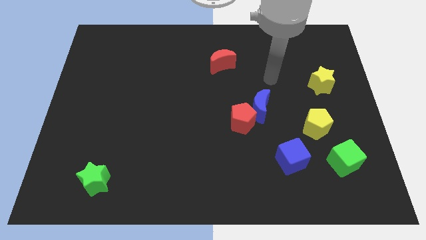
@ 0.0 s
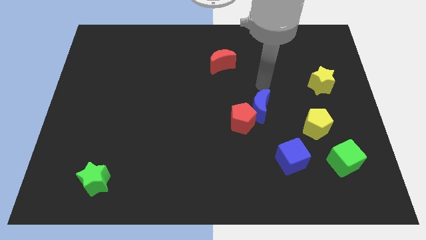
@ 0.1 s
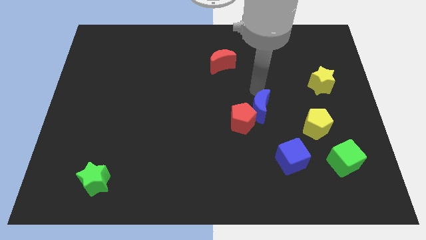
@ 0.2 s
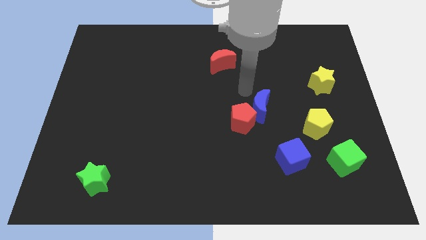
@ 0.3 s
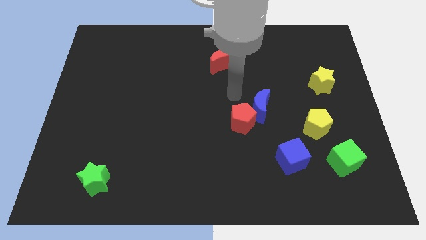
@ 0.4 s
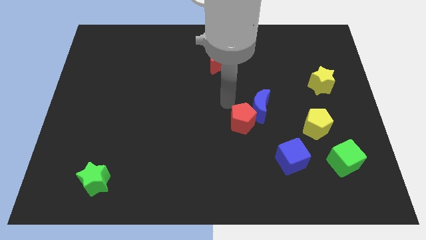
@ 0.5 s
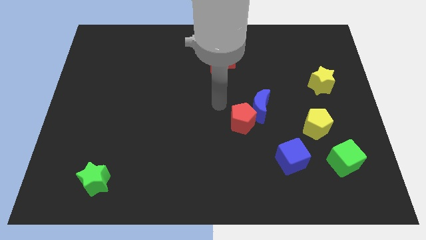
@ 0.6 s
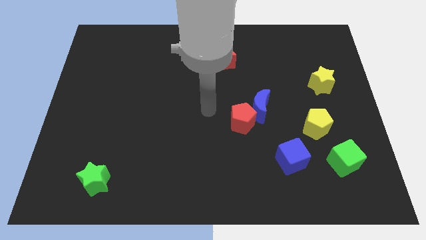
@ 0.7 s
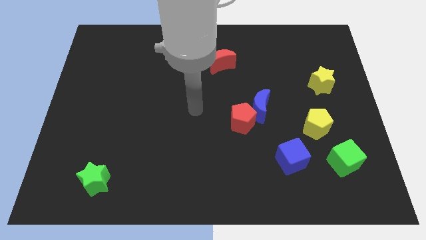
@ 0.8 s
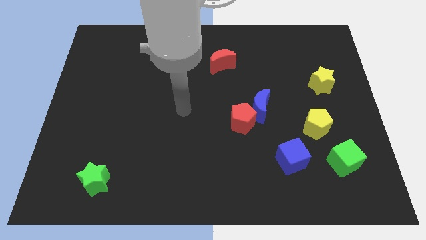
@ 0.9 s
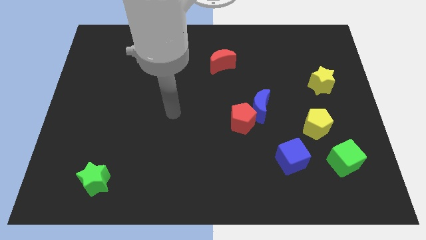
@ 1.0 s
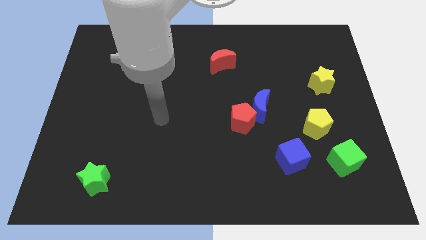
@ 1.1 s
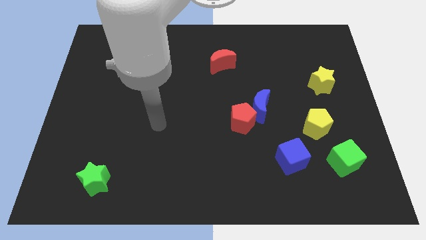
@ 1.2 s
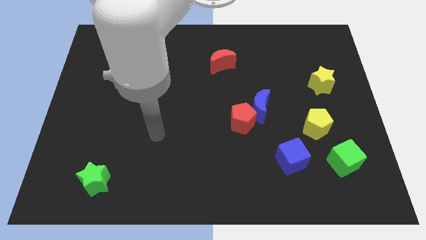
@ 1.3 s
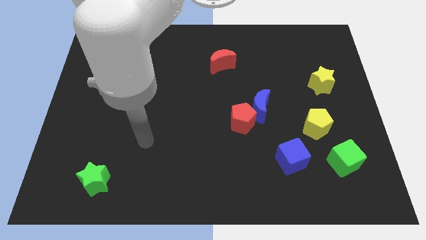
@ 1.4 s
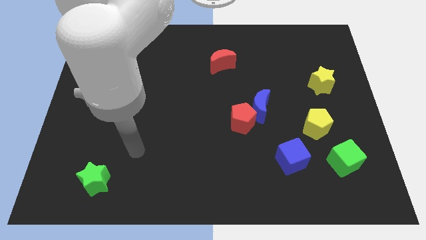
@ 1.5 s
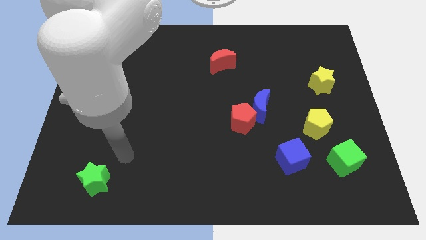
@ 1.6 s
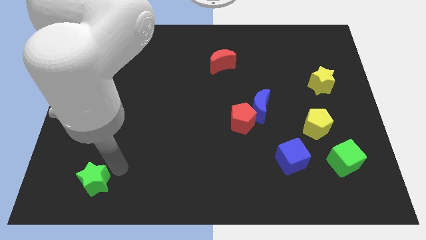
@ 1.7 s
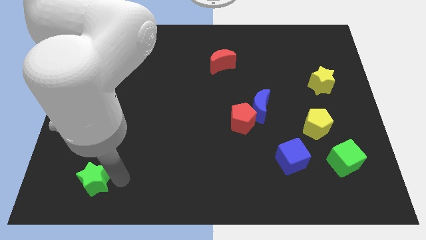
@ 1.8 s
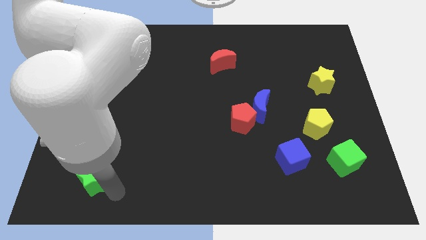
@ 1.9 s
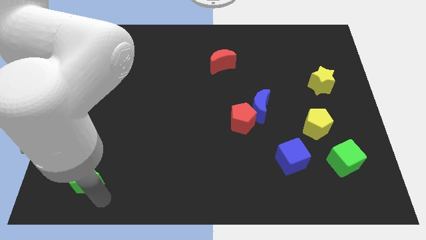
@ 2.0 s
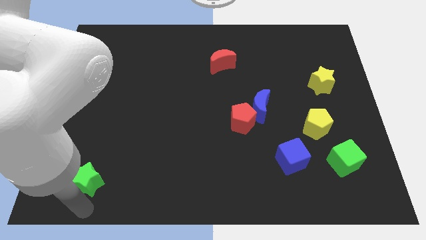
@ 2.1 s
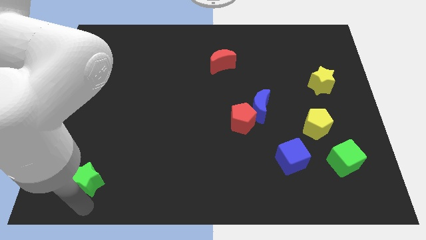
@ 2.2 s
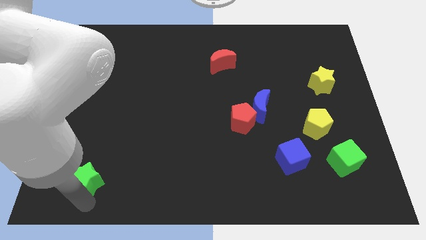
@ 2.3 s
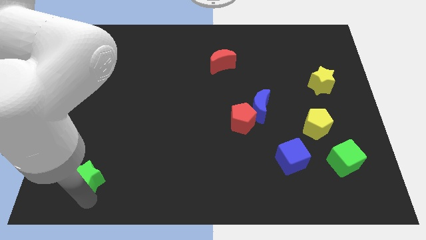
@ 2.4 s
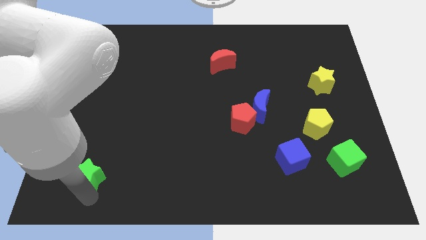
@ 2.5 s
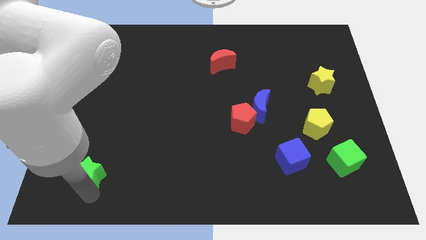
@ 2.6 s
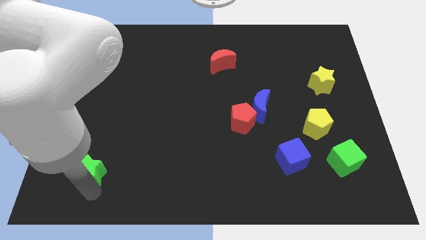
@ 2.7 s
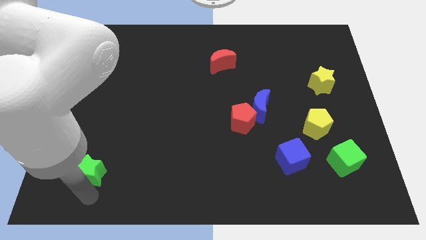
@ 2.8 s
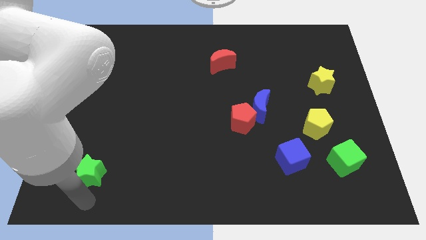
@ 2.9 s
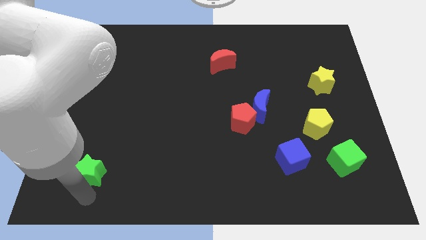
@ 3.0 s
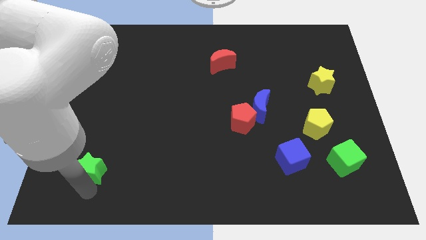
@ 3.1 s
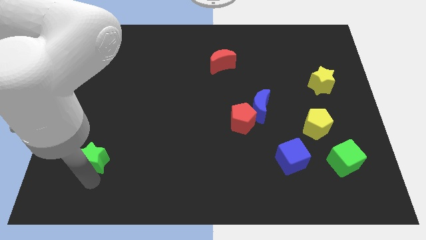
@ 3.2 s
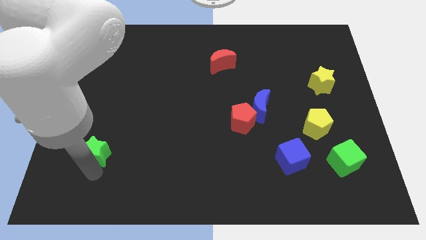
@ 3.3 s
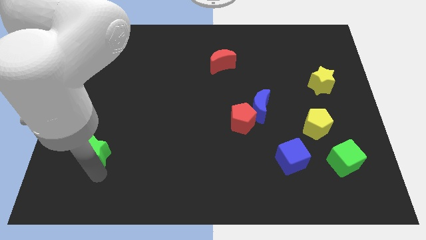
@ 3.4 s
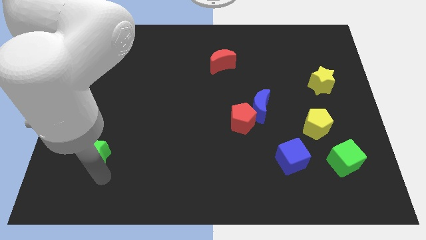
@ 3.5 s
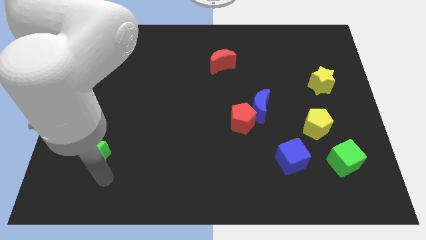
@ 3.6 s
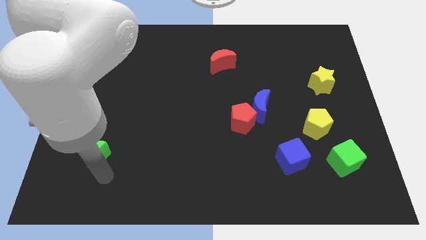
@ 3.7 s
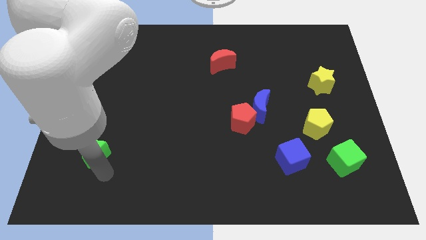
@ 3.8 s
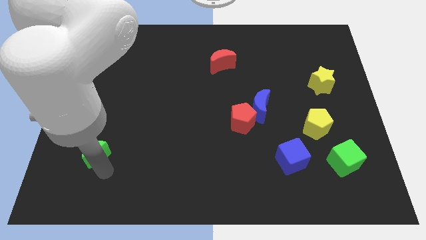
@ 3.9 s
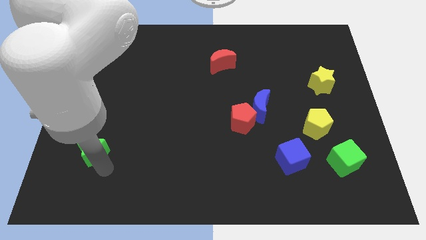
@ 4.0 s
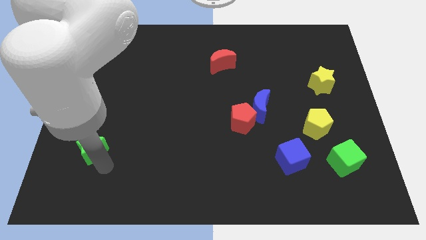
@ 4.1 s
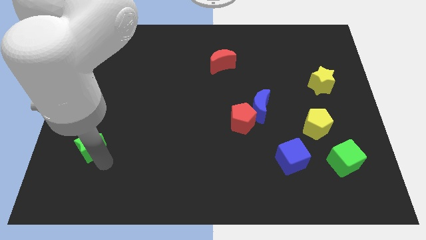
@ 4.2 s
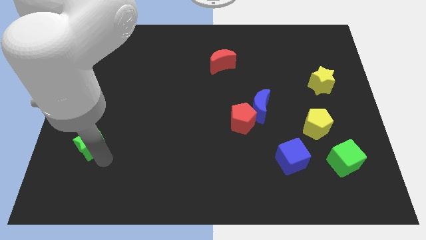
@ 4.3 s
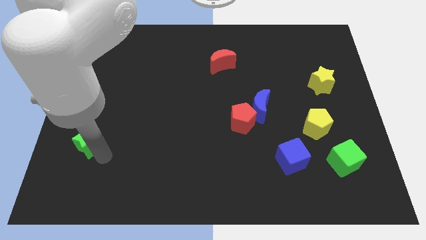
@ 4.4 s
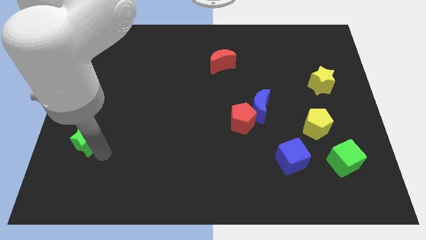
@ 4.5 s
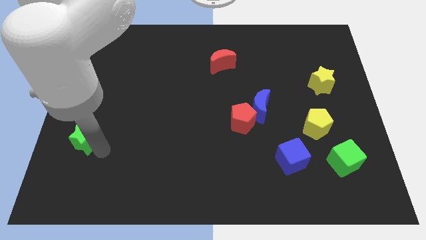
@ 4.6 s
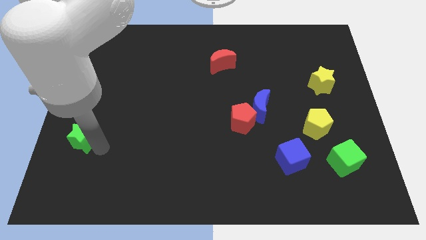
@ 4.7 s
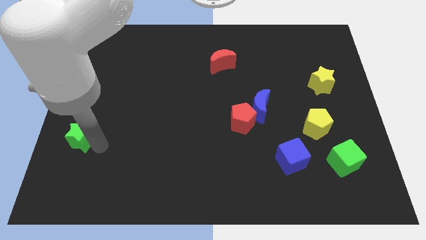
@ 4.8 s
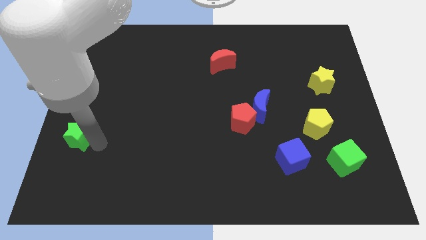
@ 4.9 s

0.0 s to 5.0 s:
slide the green star to the left side

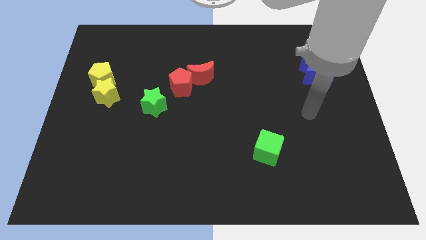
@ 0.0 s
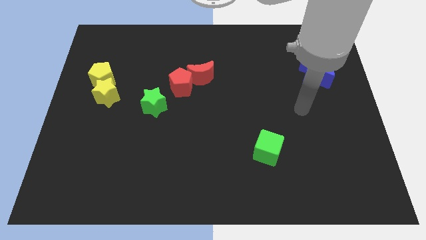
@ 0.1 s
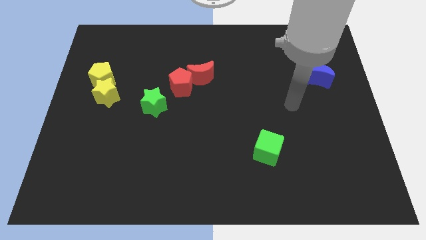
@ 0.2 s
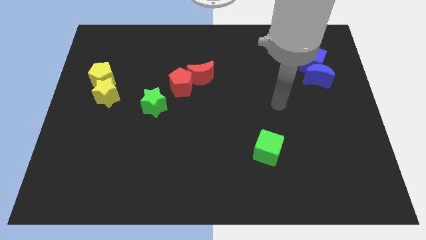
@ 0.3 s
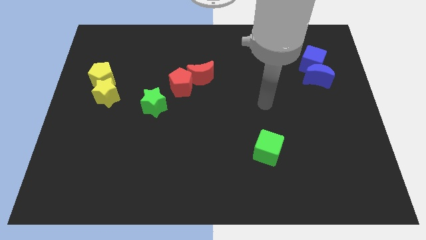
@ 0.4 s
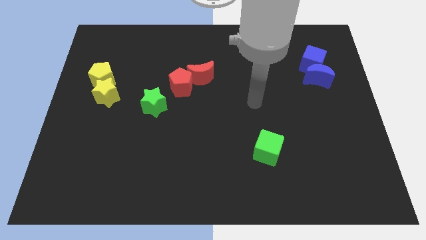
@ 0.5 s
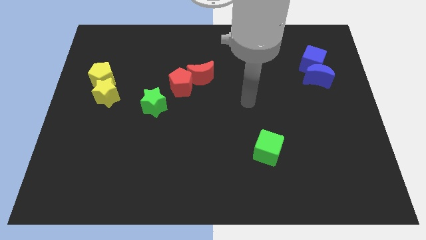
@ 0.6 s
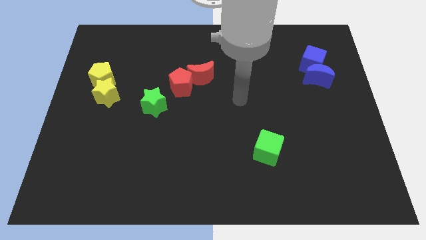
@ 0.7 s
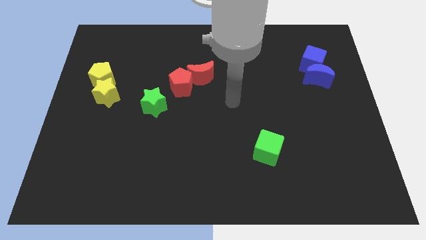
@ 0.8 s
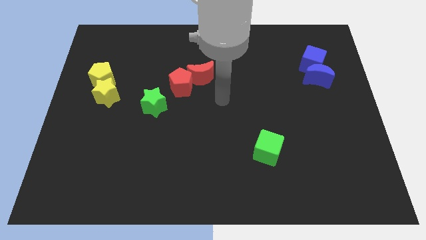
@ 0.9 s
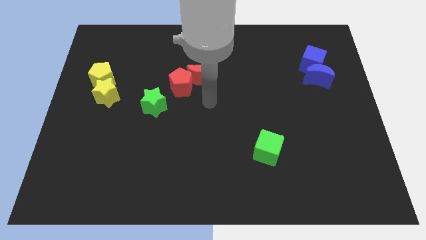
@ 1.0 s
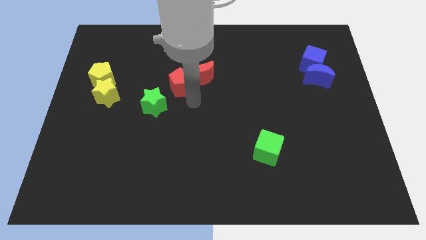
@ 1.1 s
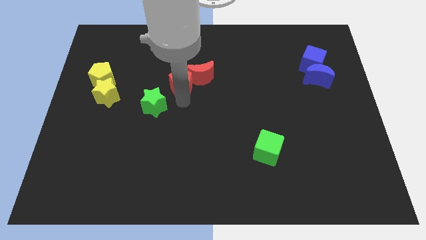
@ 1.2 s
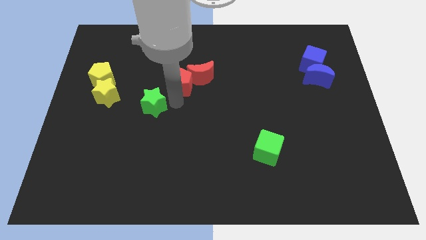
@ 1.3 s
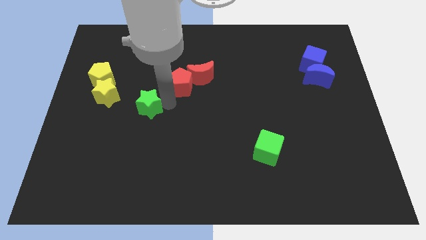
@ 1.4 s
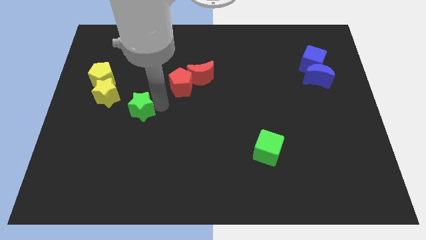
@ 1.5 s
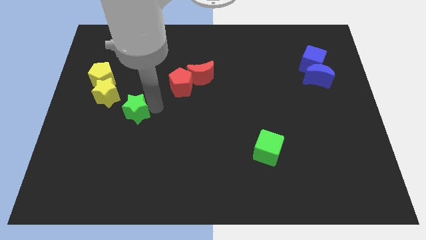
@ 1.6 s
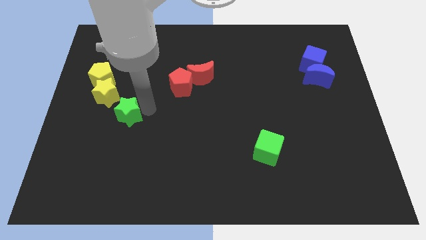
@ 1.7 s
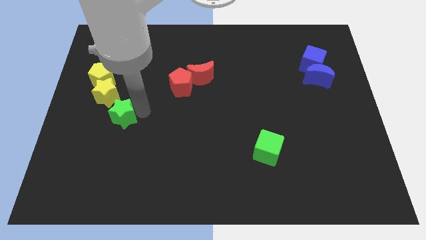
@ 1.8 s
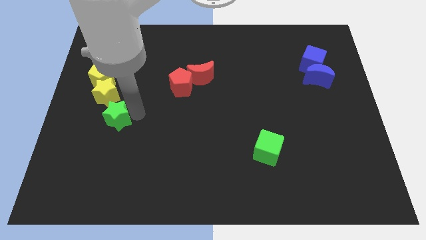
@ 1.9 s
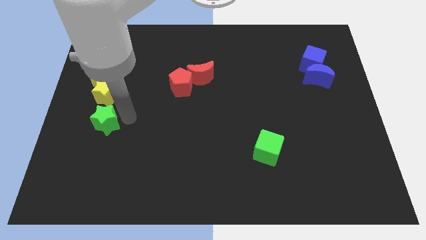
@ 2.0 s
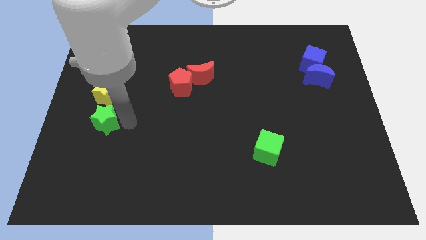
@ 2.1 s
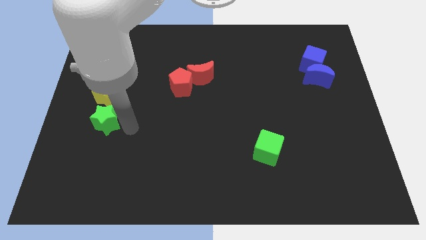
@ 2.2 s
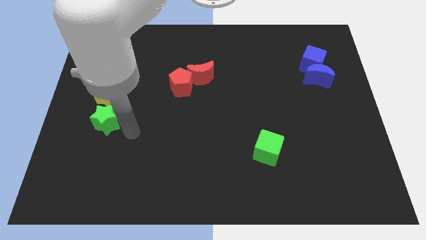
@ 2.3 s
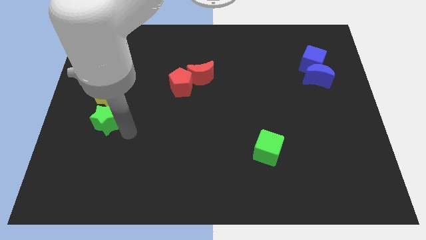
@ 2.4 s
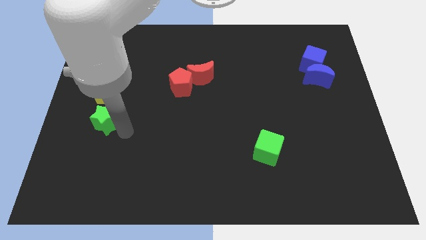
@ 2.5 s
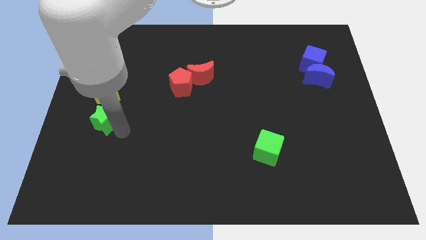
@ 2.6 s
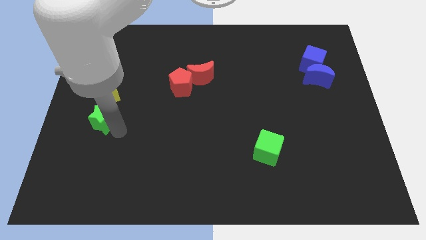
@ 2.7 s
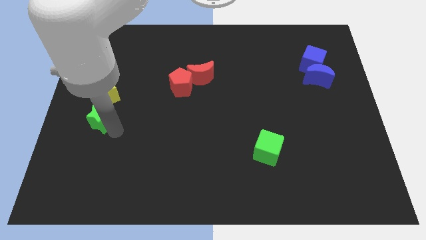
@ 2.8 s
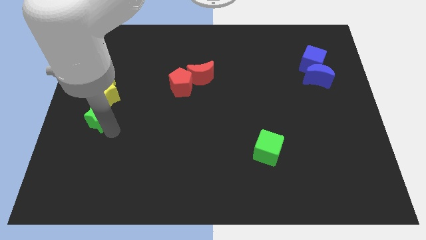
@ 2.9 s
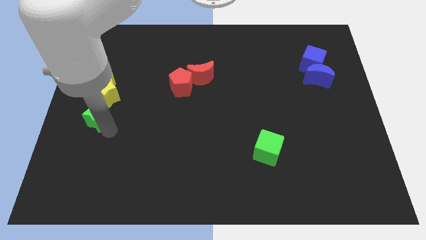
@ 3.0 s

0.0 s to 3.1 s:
slide the green star to the center left
